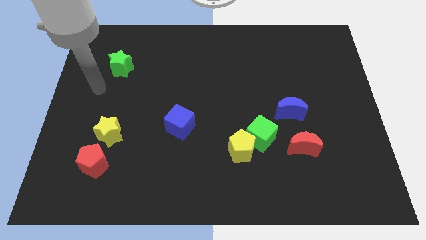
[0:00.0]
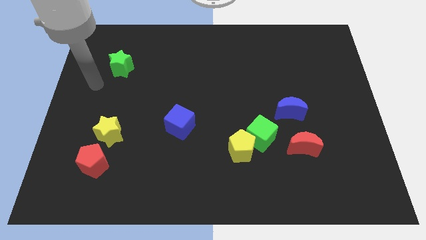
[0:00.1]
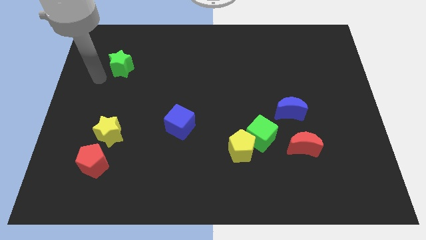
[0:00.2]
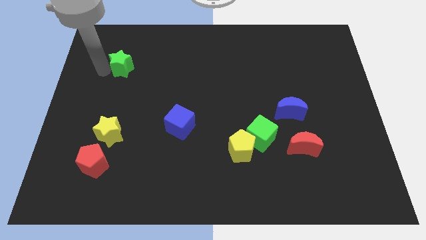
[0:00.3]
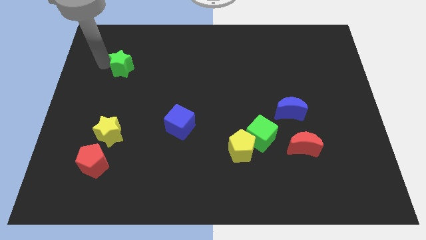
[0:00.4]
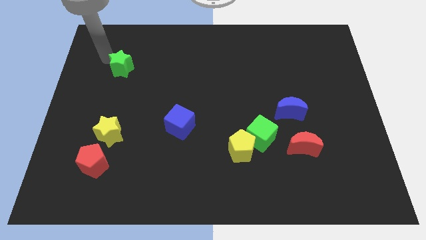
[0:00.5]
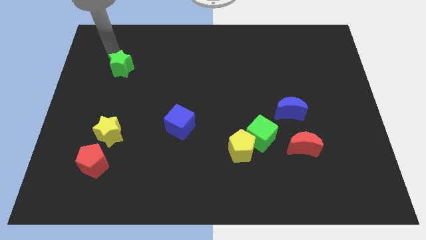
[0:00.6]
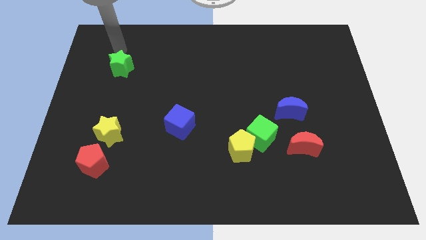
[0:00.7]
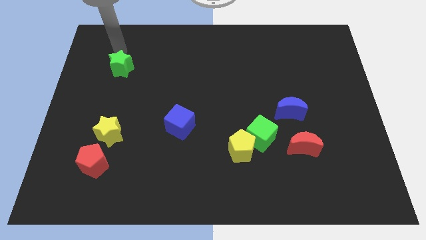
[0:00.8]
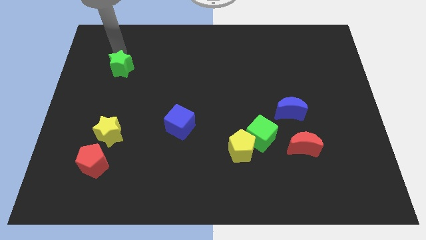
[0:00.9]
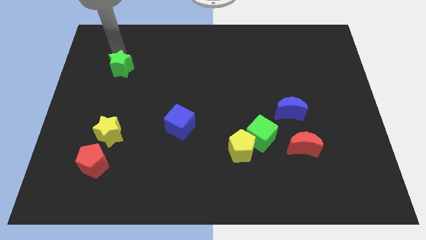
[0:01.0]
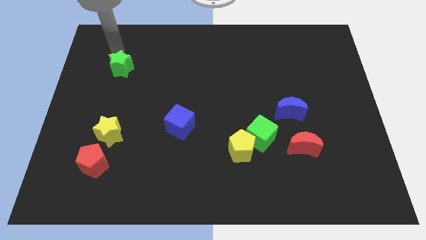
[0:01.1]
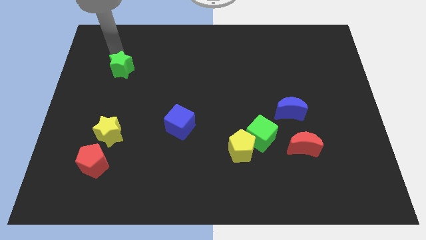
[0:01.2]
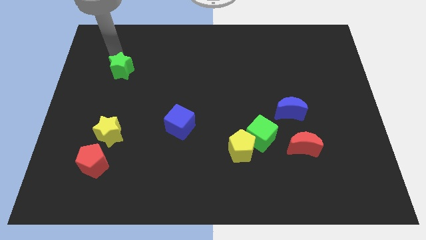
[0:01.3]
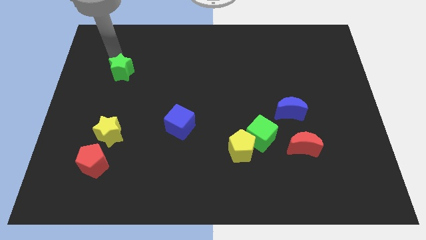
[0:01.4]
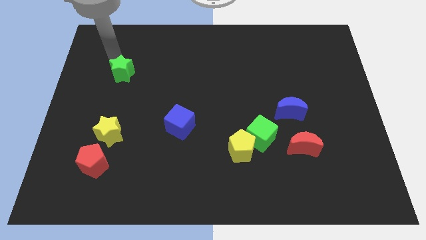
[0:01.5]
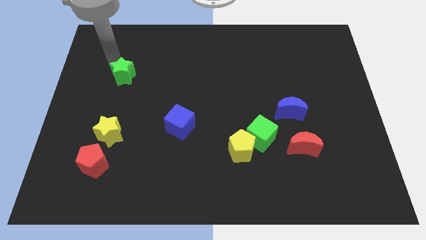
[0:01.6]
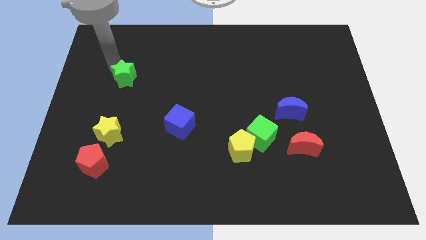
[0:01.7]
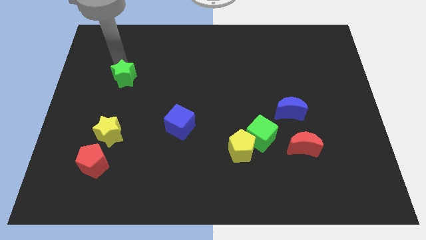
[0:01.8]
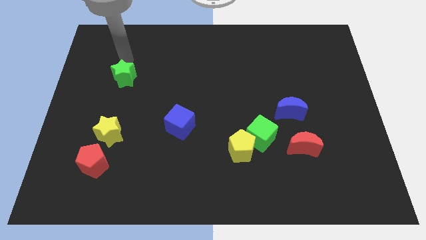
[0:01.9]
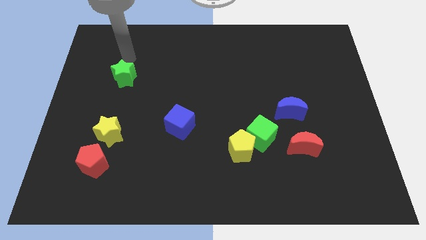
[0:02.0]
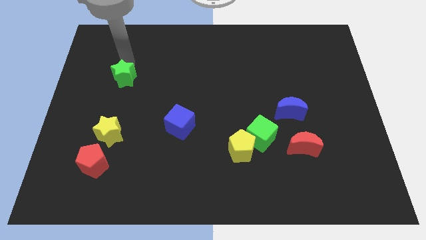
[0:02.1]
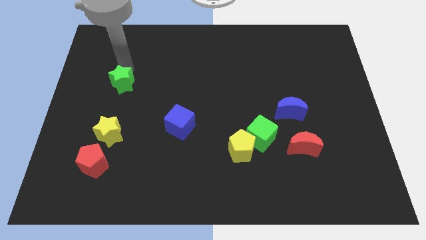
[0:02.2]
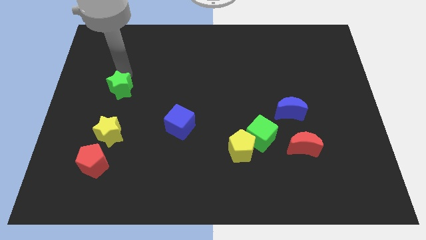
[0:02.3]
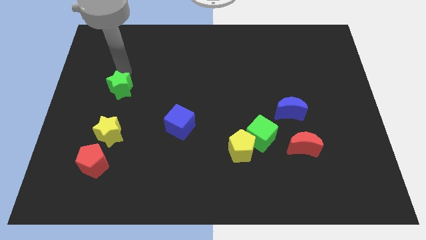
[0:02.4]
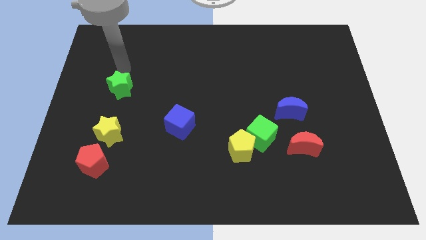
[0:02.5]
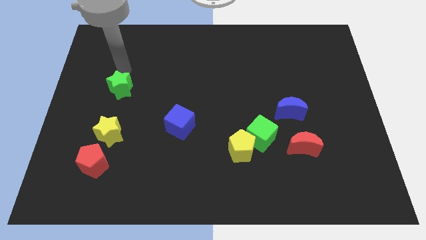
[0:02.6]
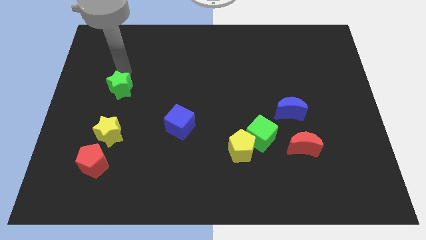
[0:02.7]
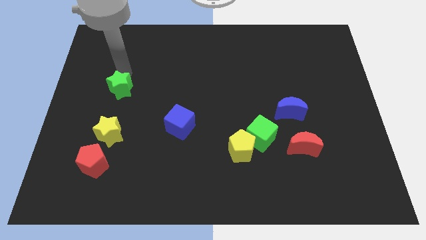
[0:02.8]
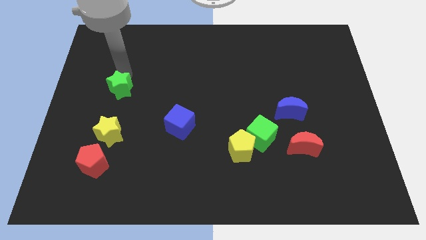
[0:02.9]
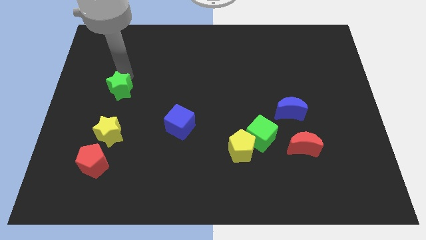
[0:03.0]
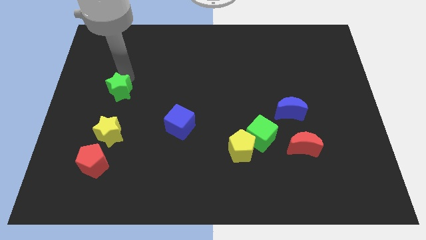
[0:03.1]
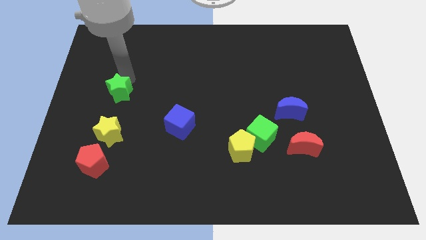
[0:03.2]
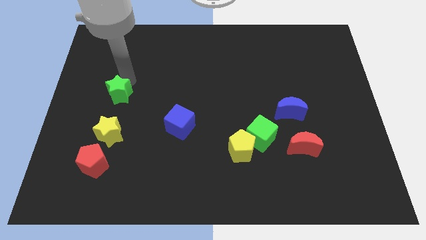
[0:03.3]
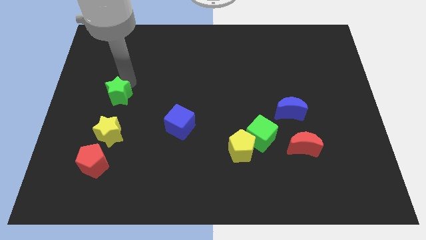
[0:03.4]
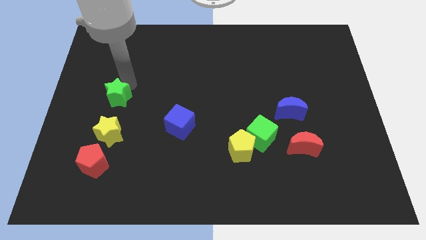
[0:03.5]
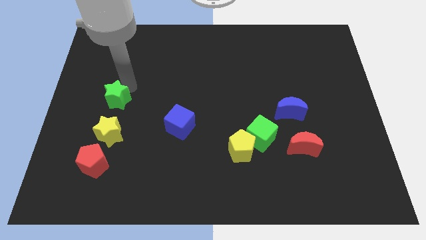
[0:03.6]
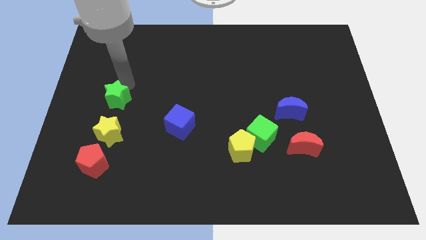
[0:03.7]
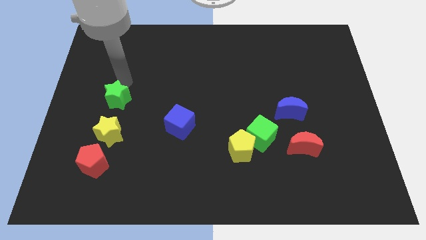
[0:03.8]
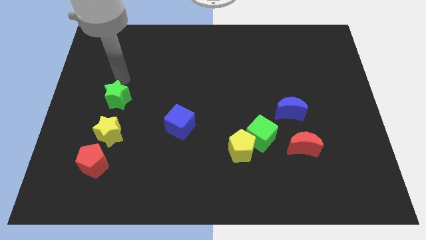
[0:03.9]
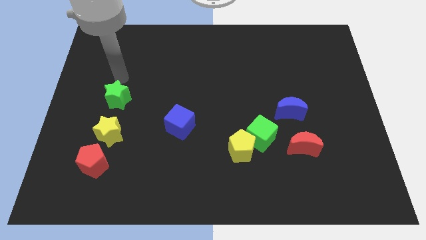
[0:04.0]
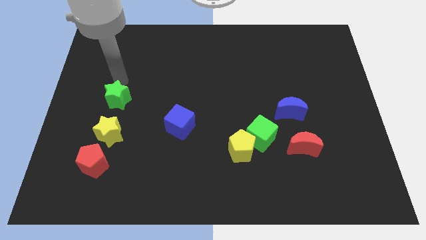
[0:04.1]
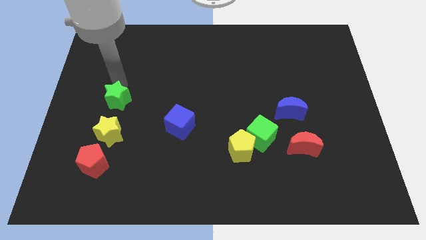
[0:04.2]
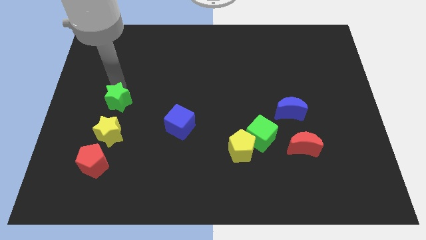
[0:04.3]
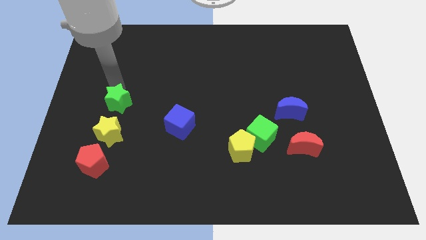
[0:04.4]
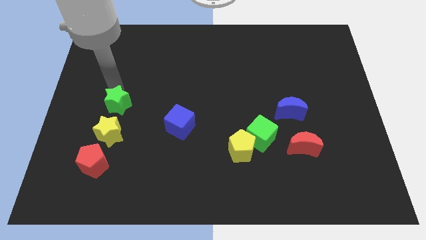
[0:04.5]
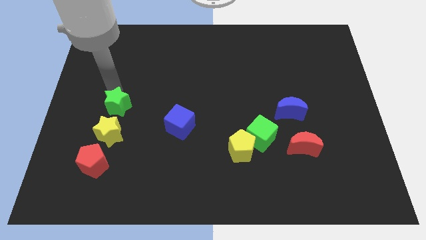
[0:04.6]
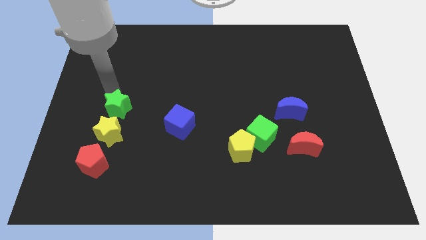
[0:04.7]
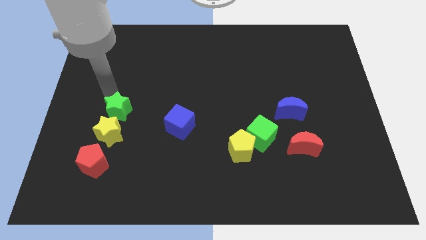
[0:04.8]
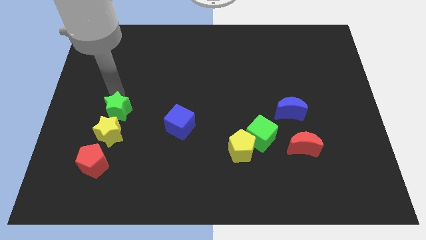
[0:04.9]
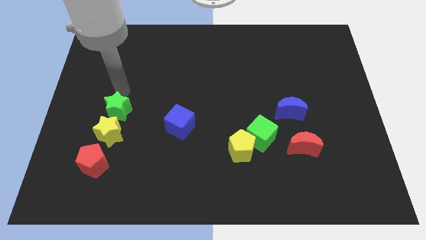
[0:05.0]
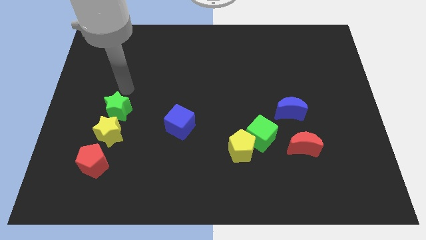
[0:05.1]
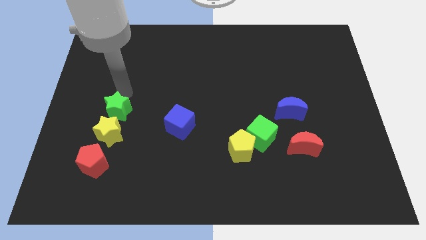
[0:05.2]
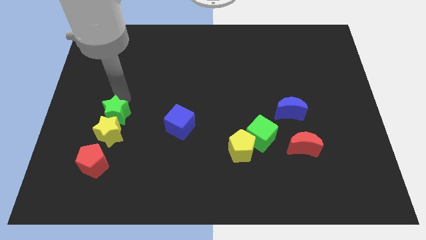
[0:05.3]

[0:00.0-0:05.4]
put the green star close to the yellow star

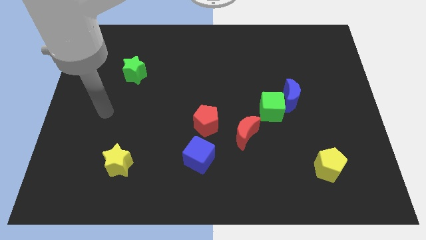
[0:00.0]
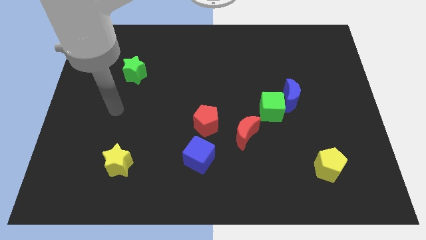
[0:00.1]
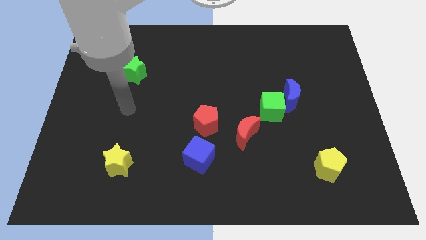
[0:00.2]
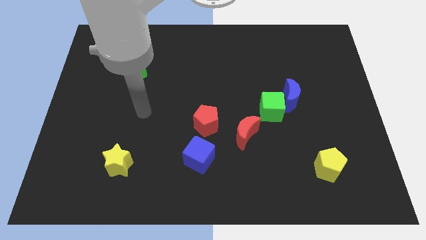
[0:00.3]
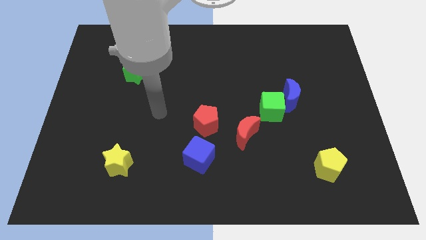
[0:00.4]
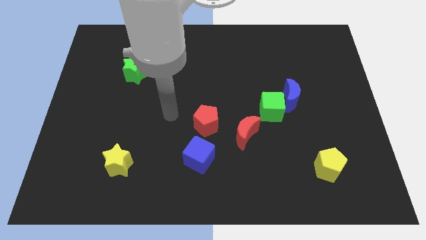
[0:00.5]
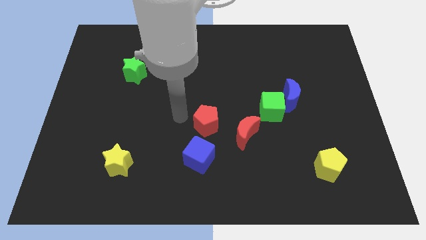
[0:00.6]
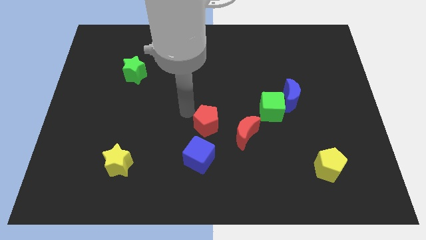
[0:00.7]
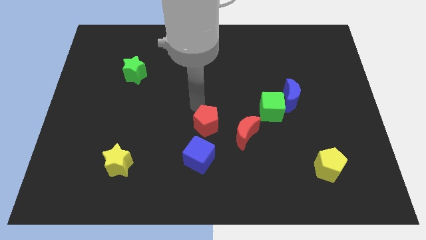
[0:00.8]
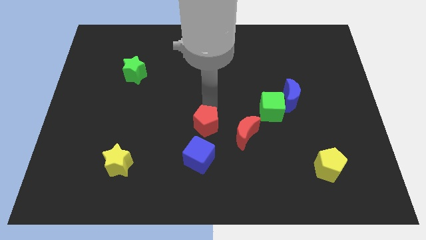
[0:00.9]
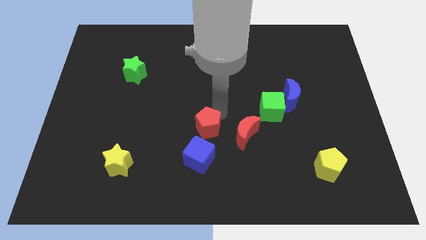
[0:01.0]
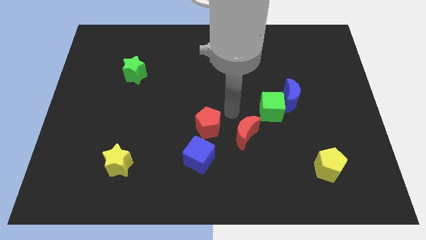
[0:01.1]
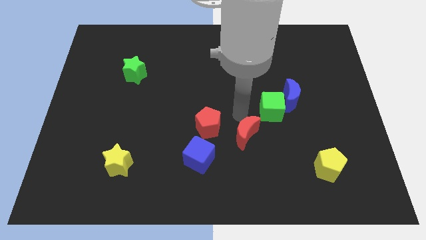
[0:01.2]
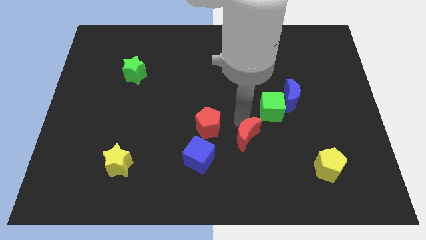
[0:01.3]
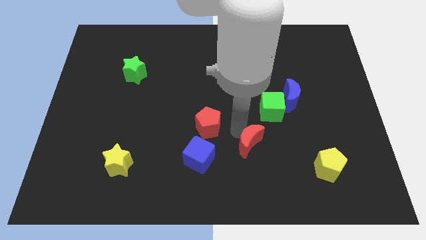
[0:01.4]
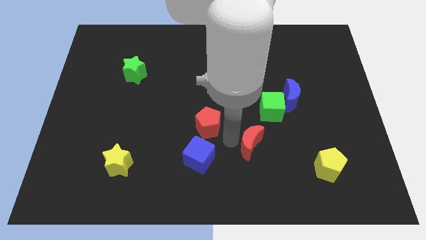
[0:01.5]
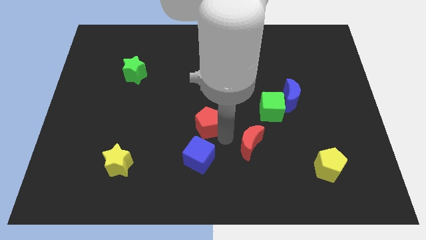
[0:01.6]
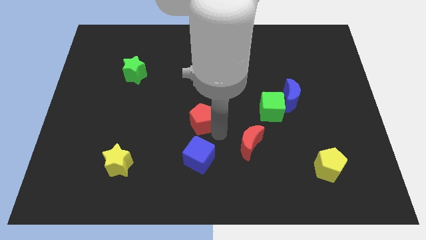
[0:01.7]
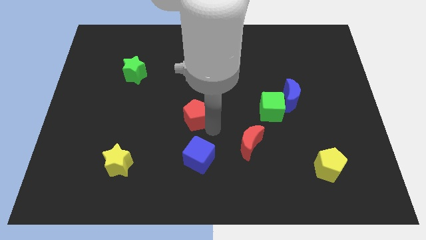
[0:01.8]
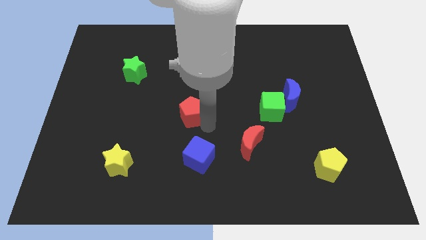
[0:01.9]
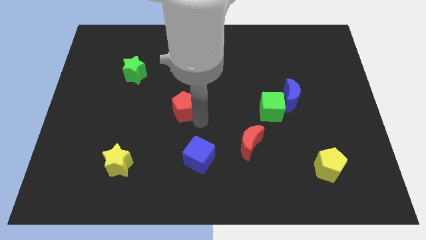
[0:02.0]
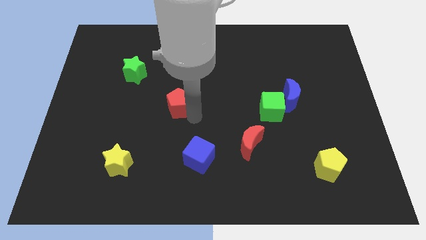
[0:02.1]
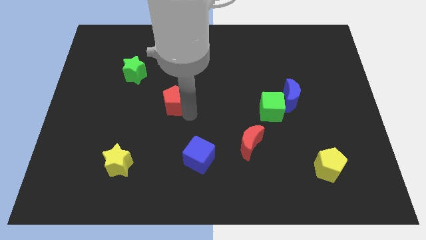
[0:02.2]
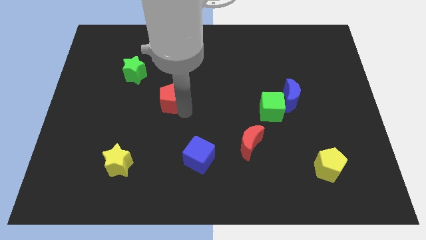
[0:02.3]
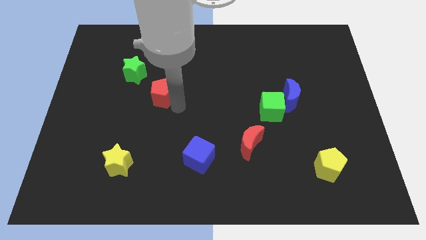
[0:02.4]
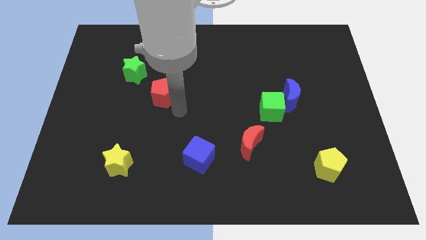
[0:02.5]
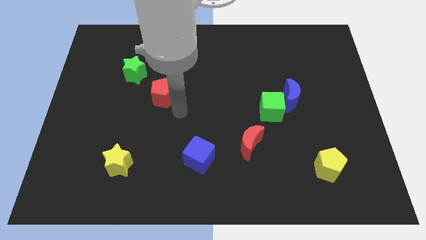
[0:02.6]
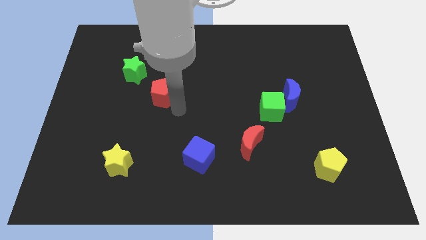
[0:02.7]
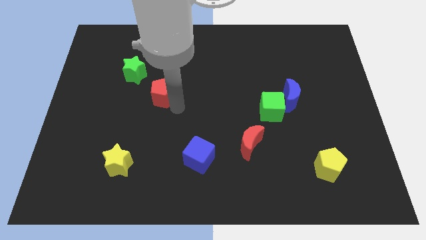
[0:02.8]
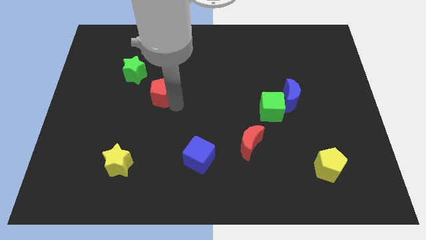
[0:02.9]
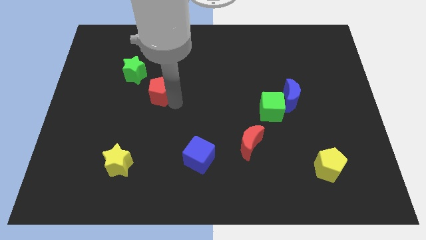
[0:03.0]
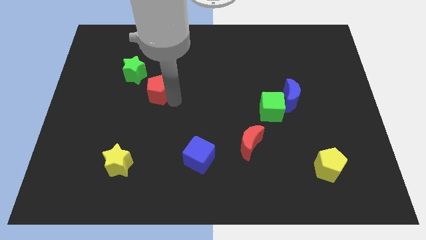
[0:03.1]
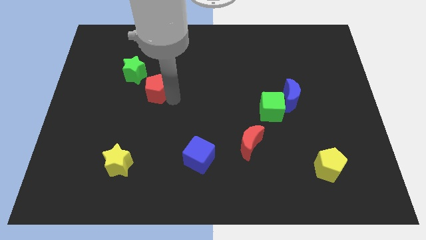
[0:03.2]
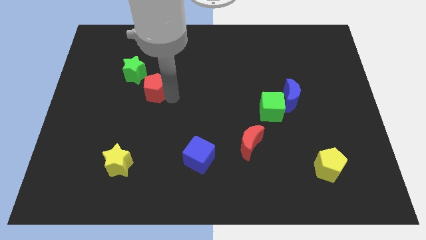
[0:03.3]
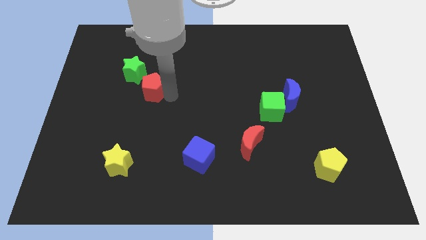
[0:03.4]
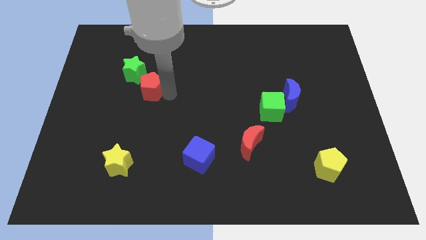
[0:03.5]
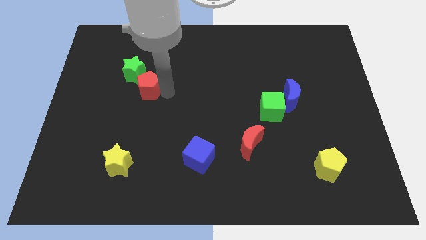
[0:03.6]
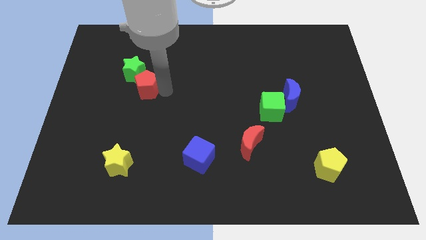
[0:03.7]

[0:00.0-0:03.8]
put the red pentagon towards the green star
